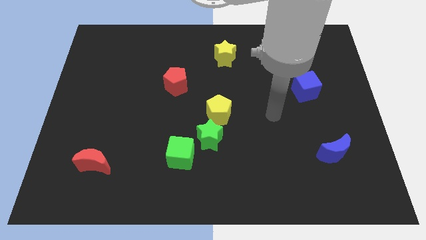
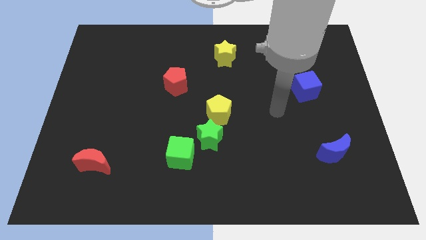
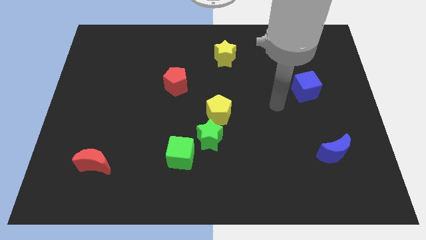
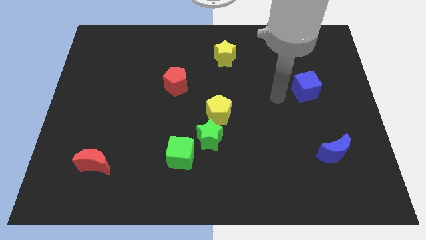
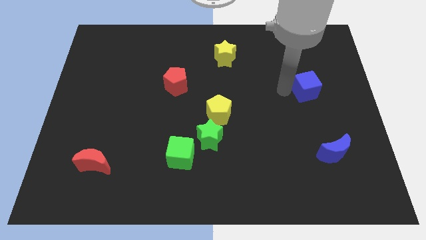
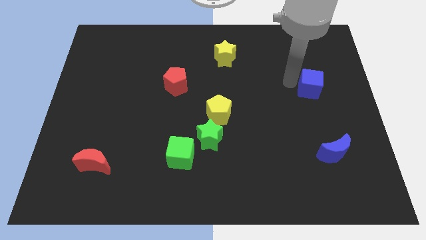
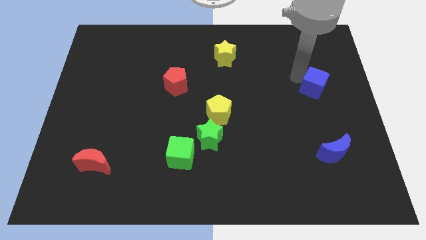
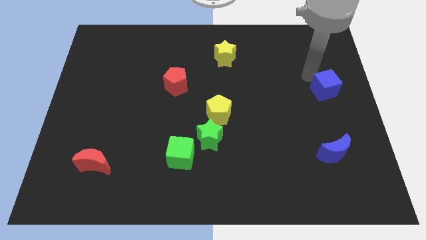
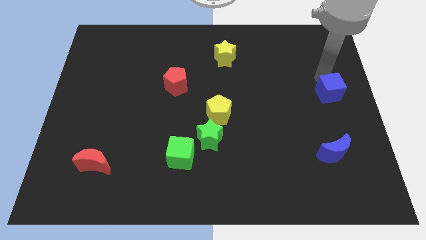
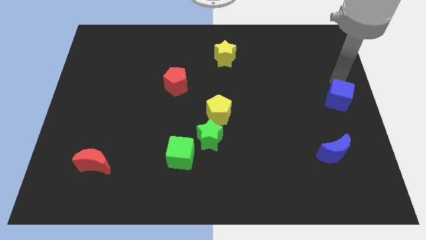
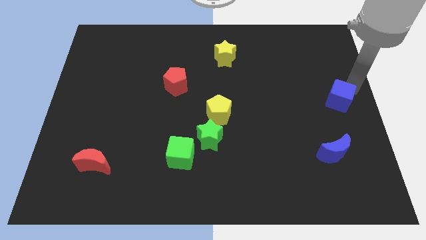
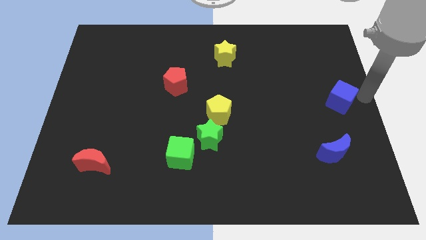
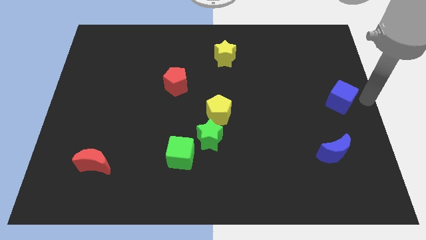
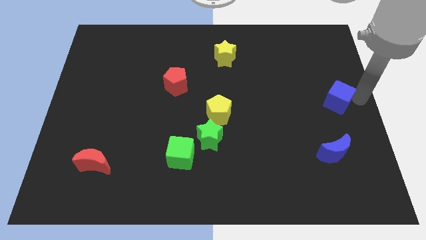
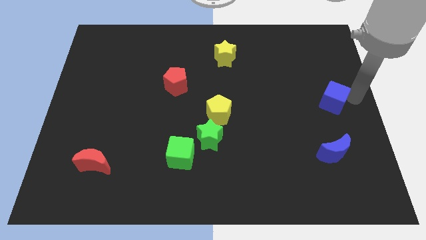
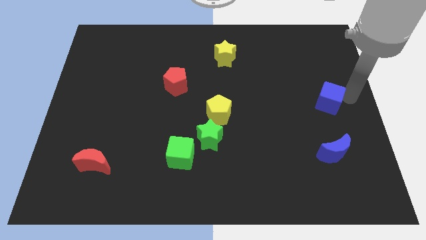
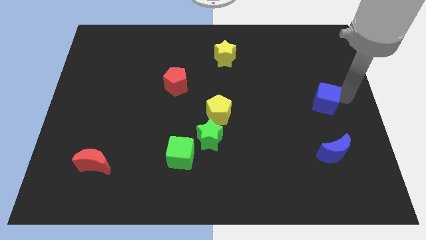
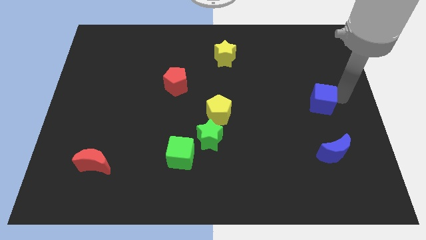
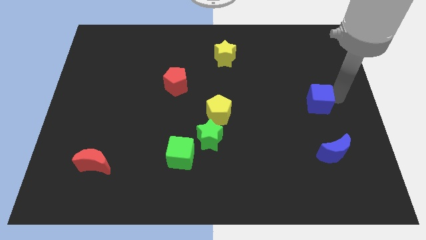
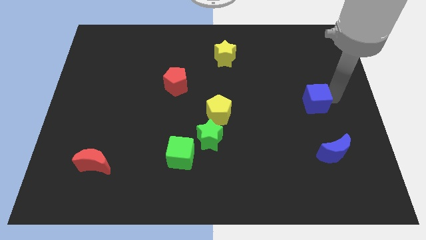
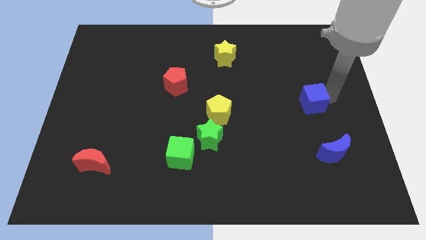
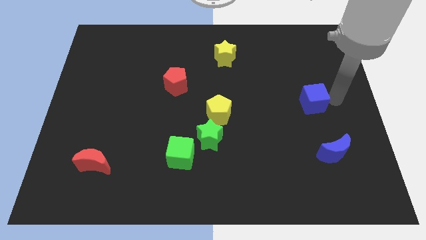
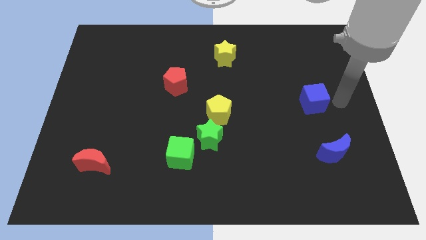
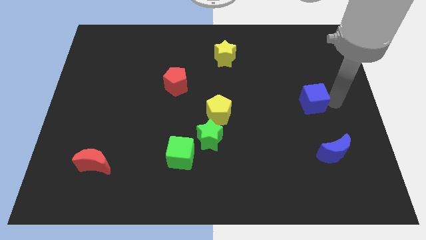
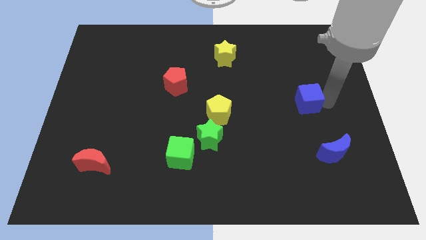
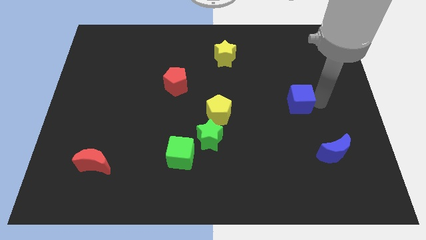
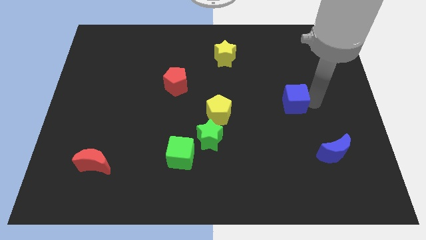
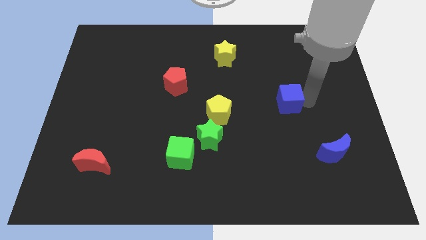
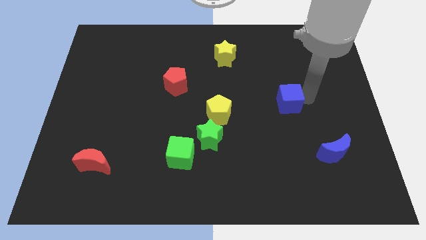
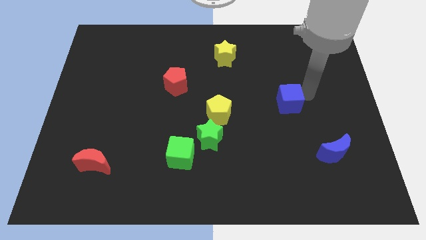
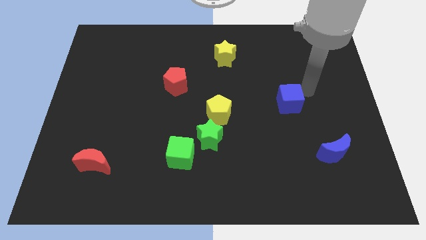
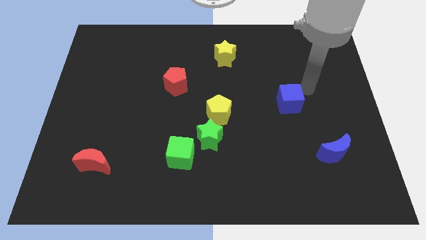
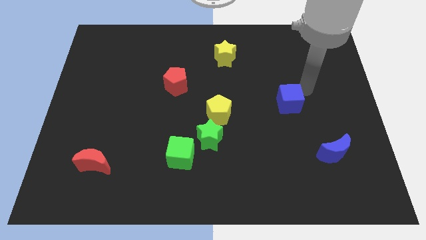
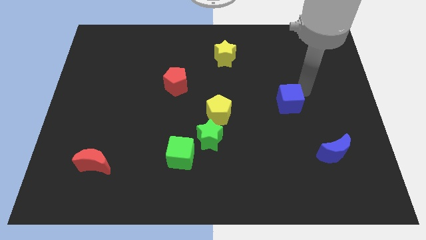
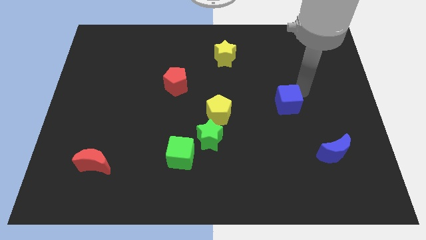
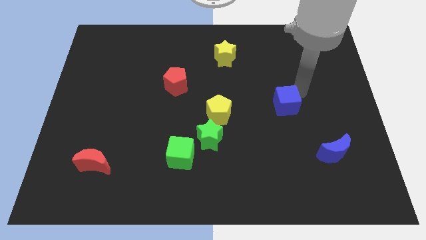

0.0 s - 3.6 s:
slide the blue cube somewhat downwards and then to the left

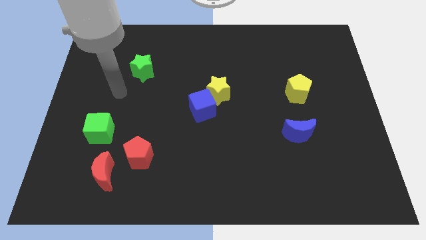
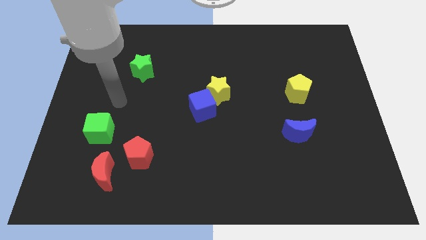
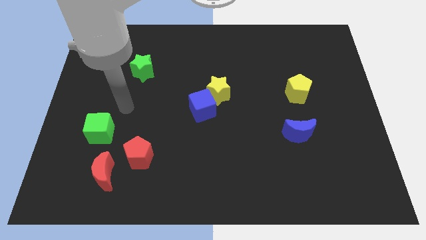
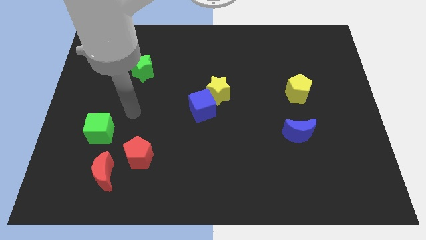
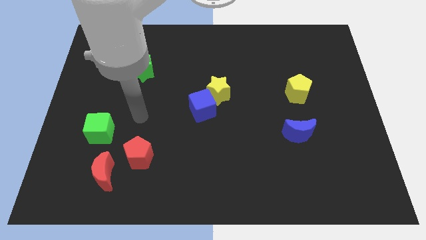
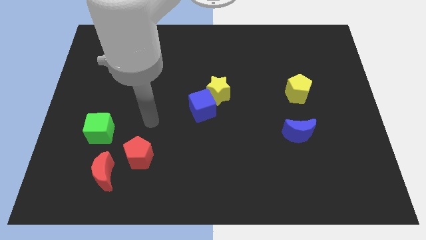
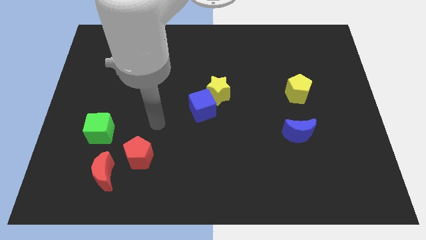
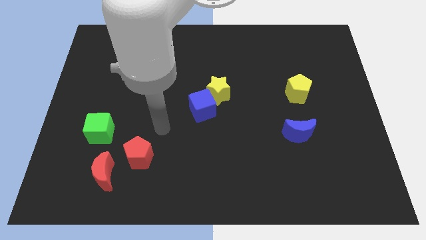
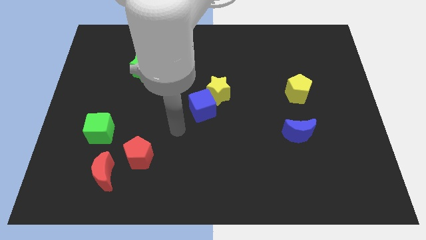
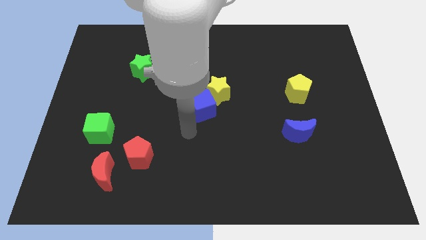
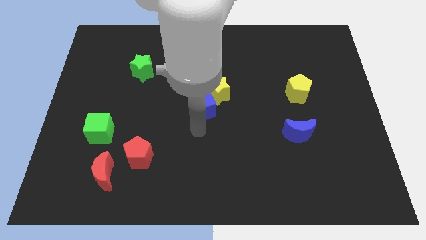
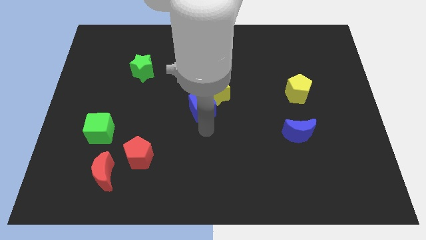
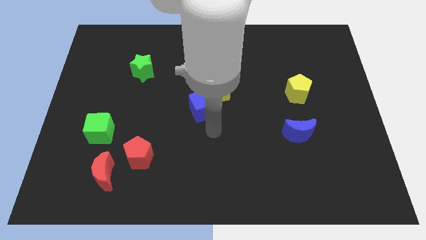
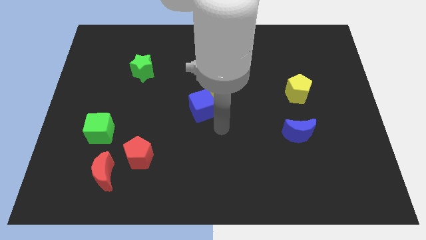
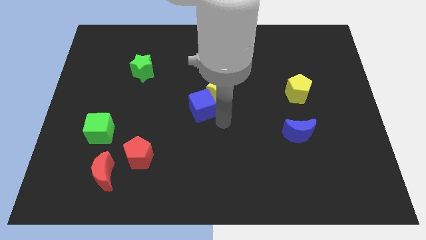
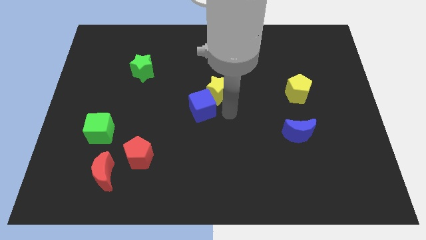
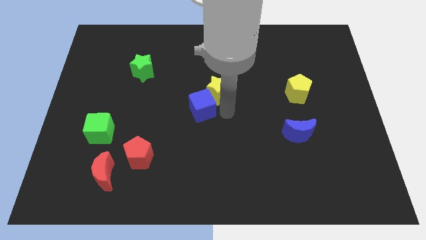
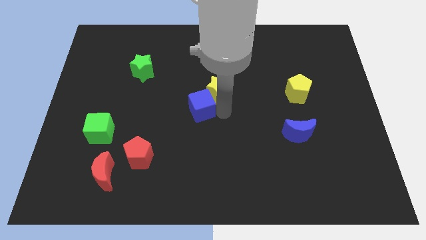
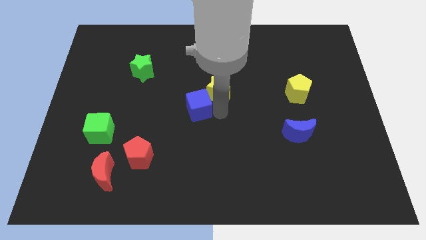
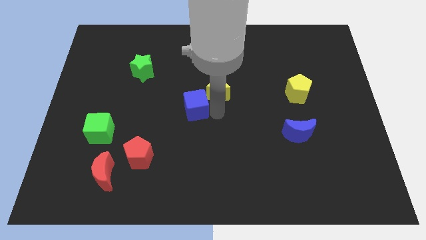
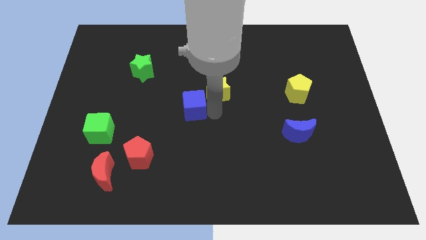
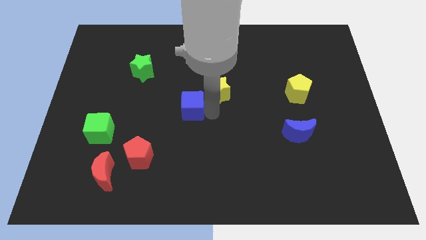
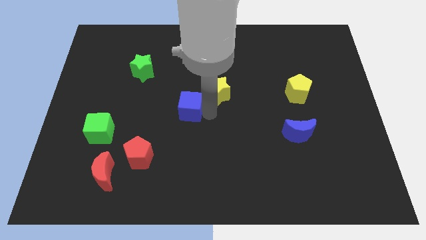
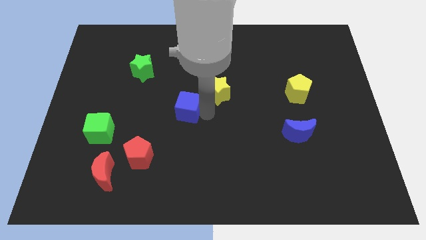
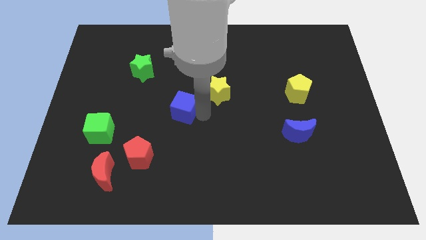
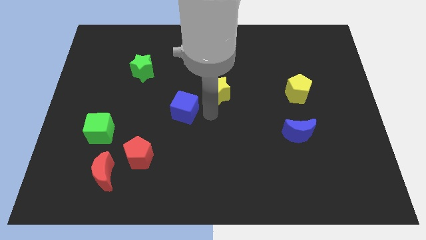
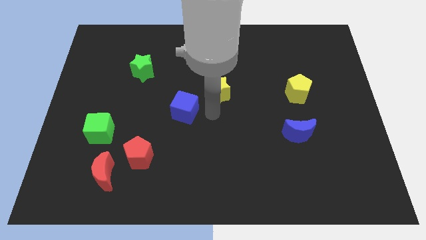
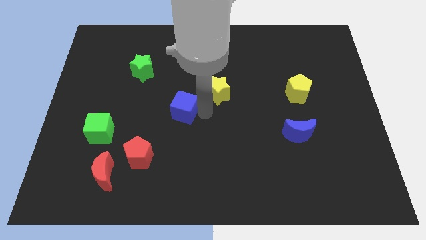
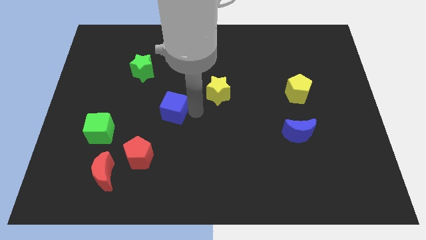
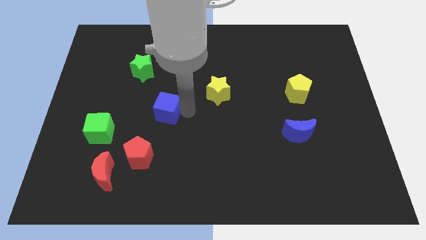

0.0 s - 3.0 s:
slightly move the blue cube left

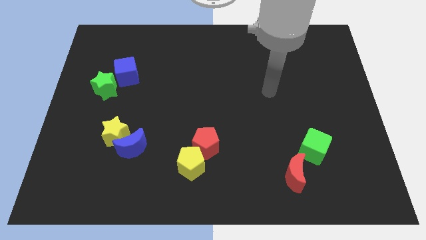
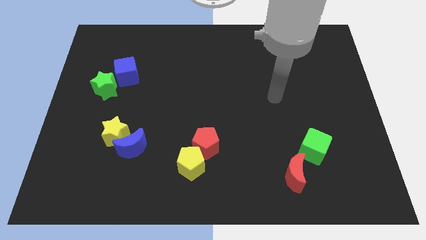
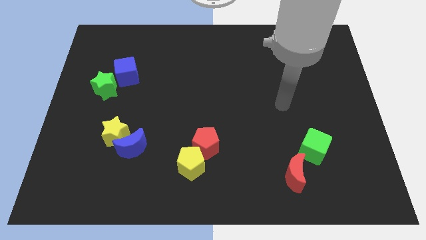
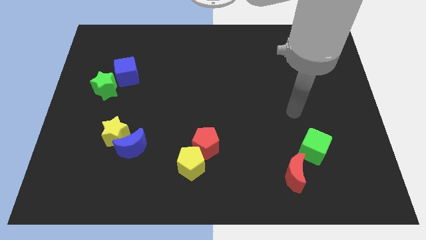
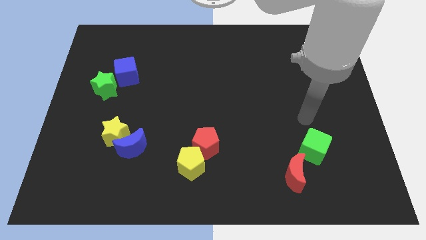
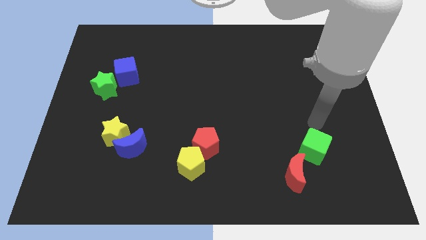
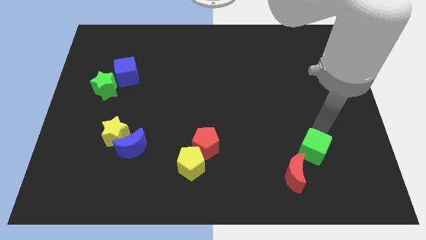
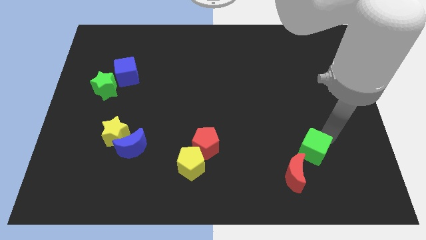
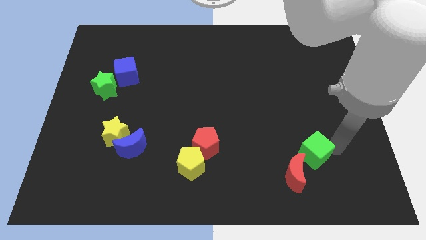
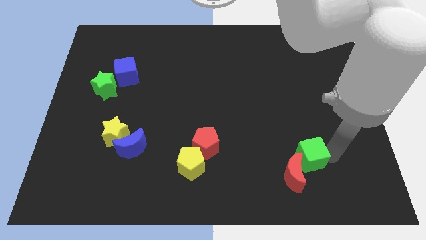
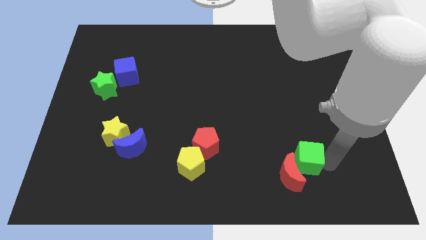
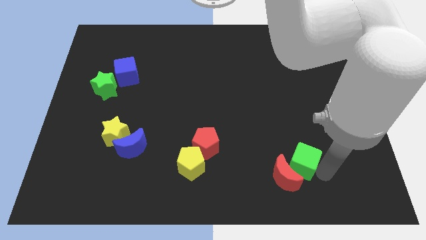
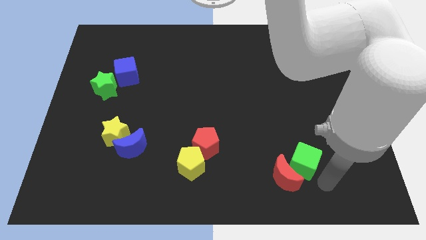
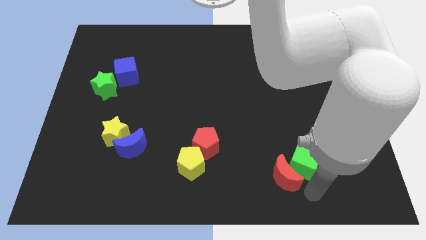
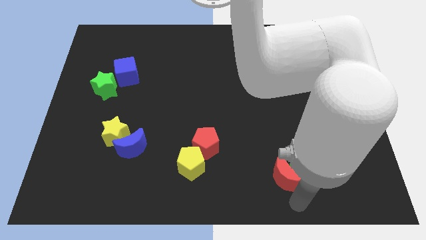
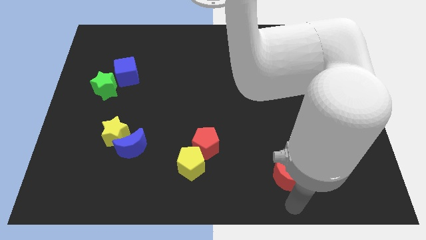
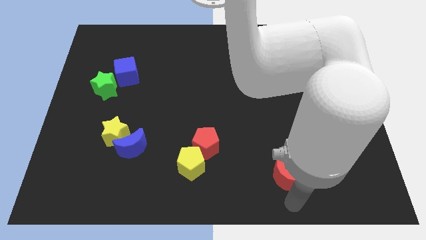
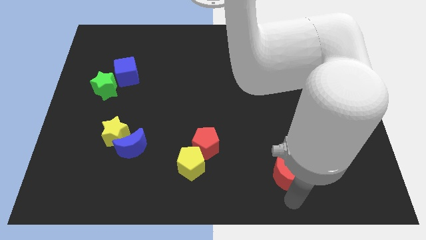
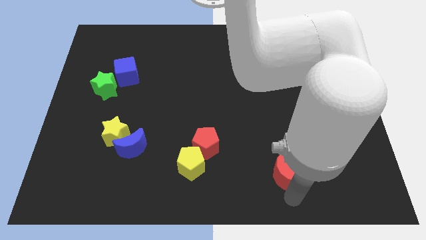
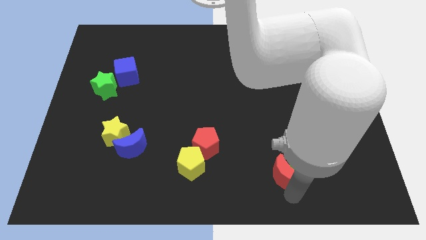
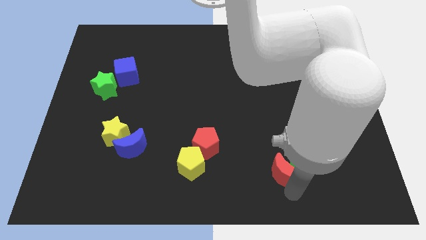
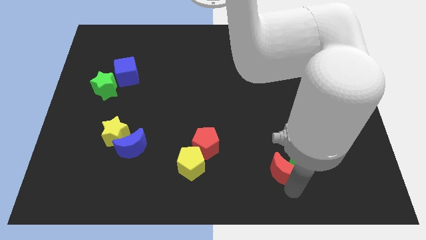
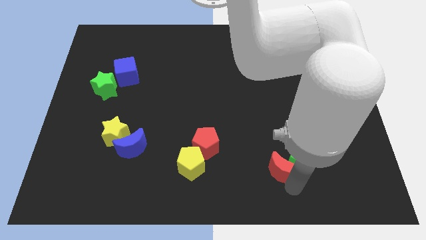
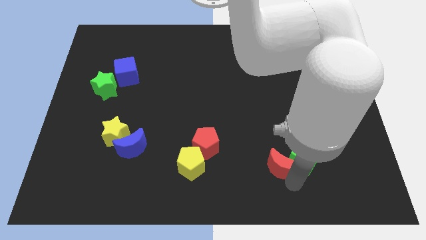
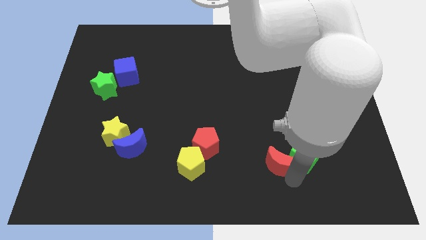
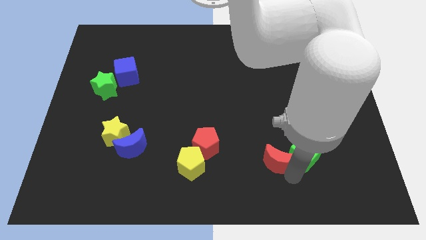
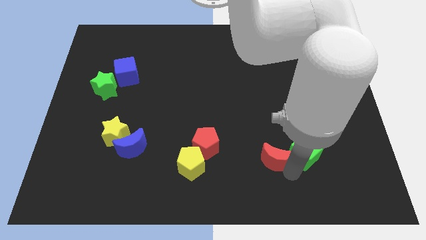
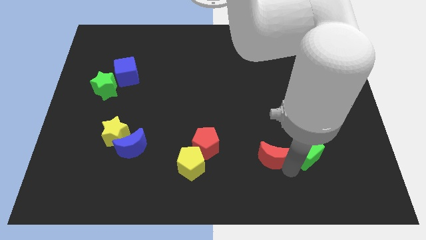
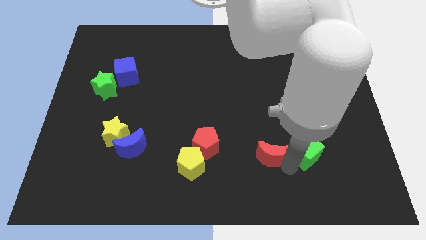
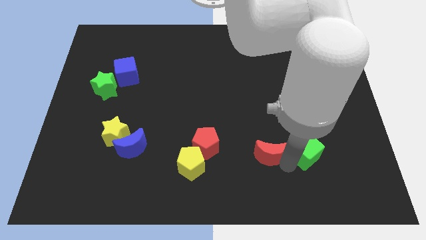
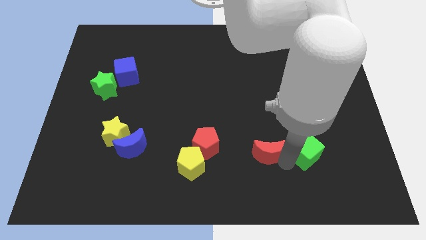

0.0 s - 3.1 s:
push the red moon upwards and to the left diagonally a little
